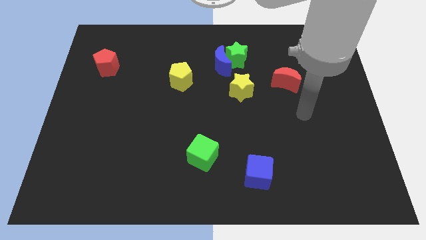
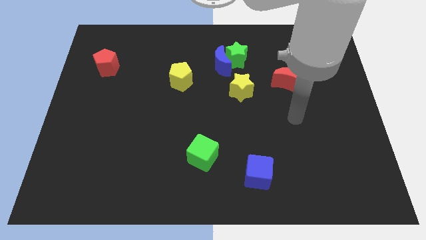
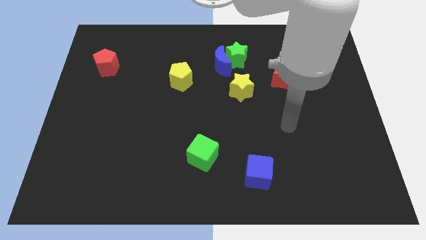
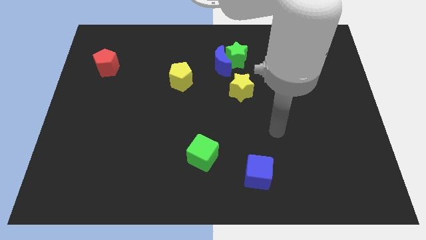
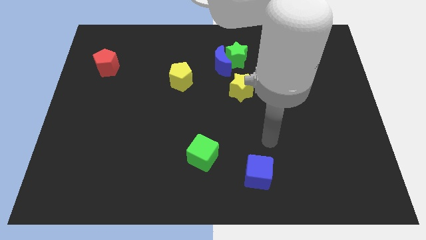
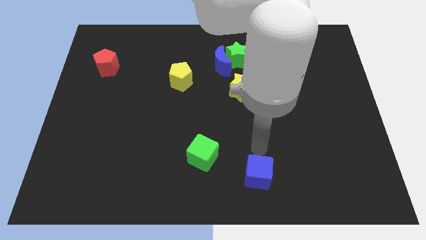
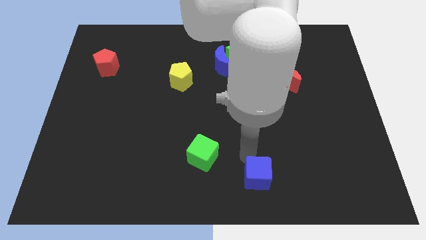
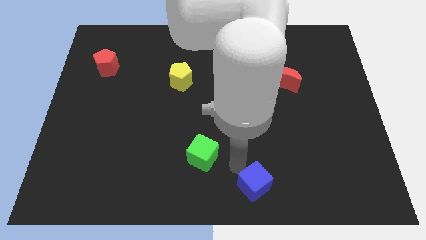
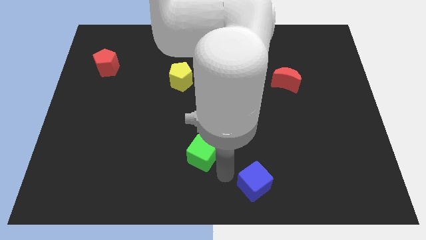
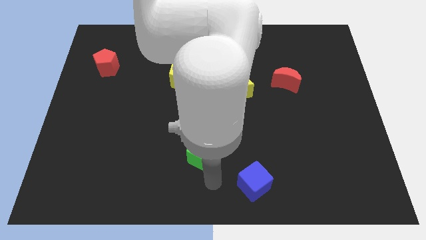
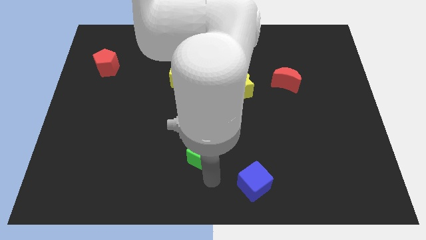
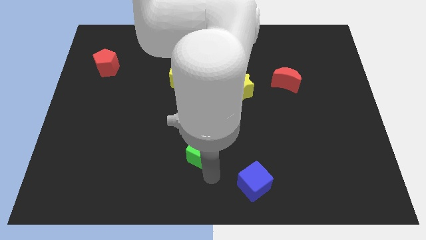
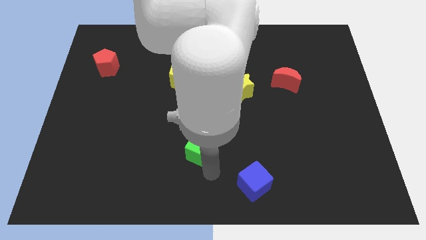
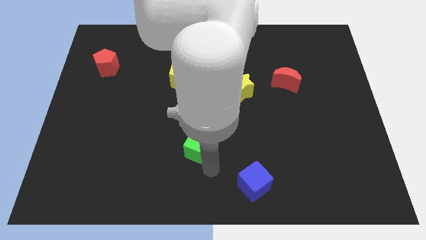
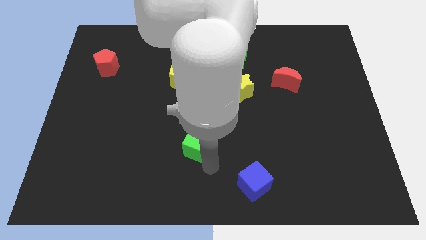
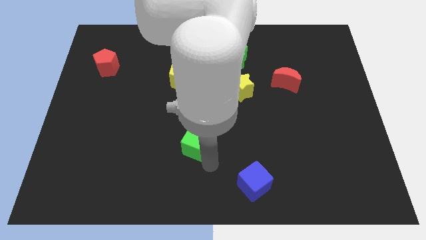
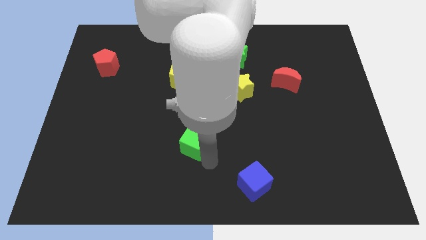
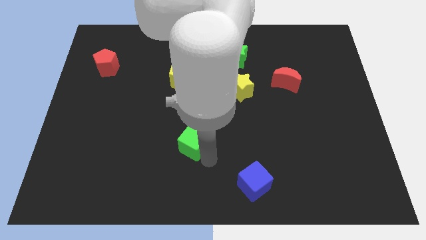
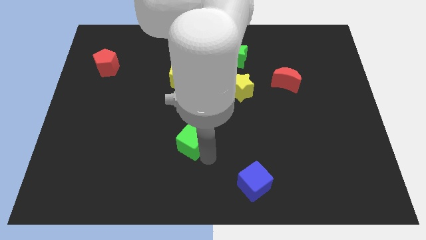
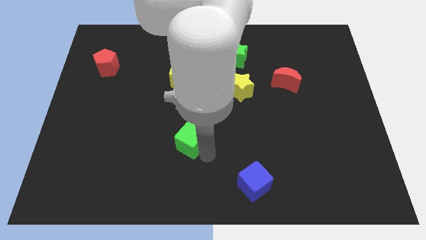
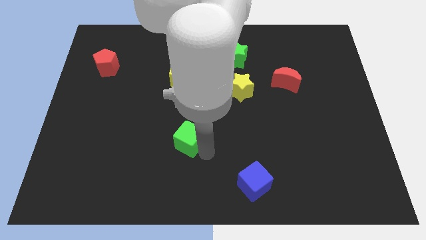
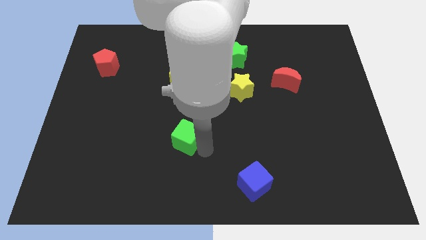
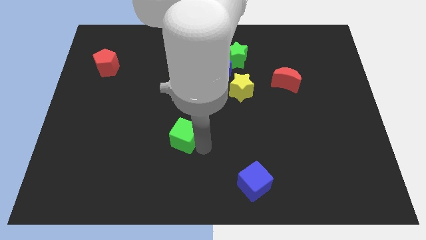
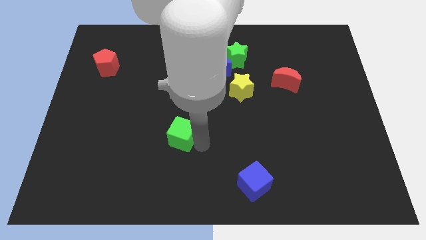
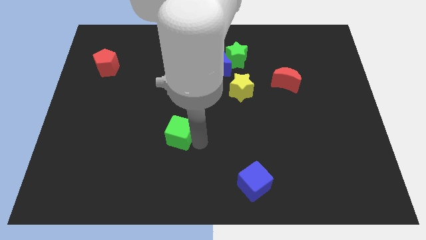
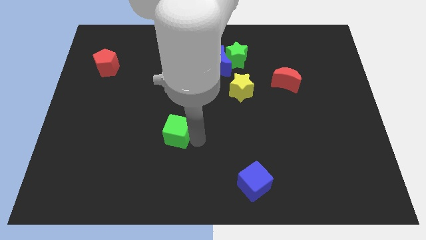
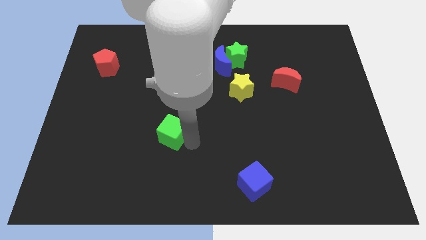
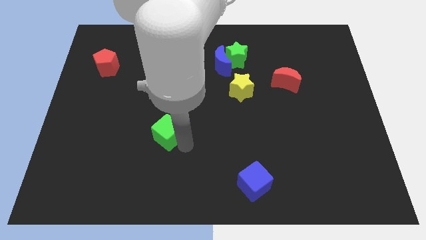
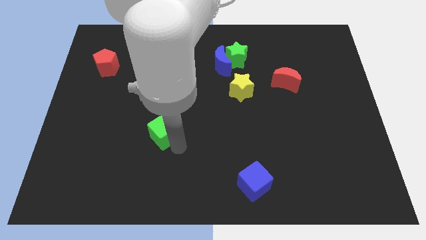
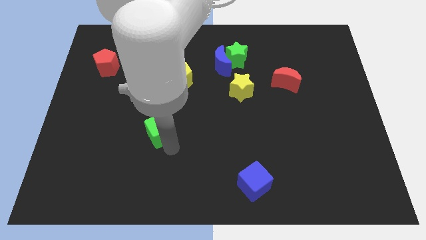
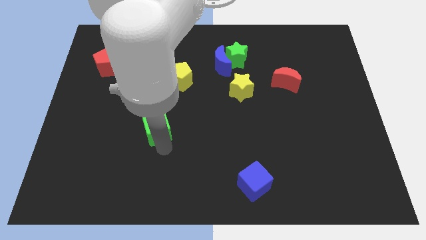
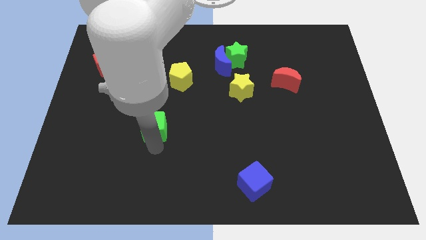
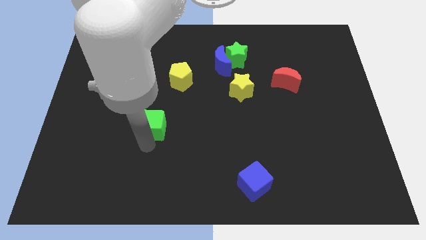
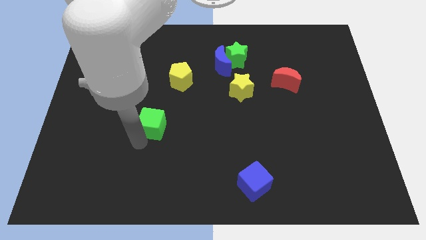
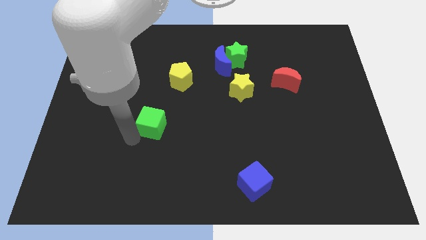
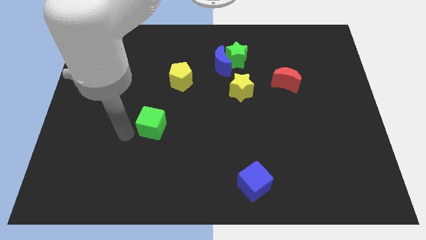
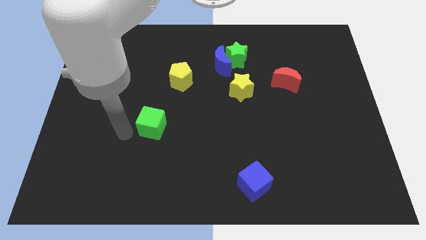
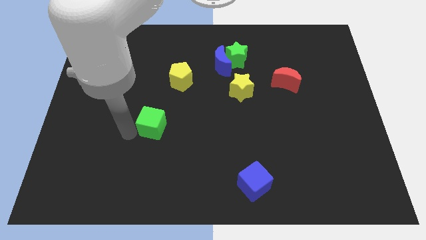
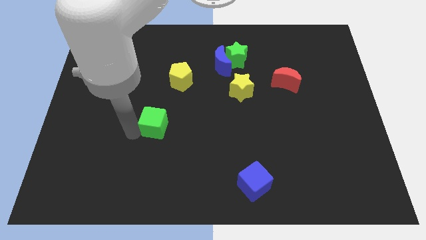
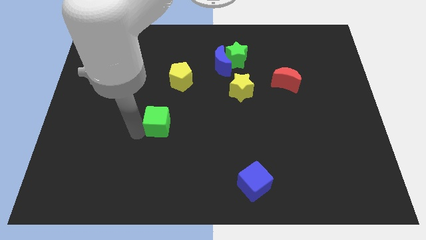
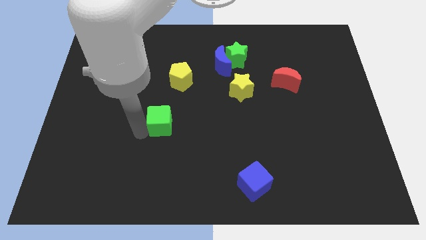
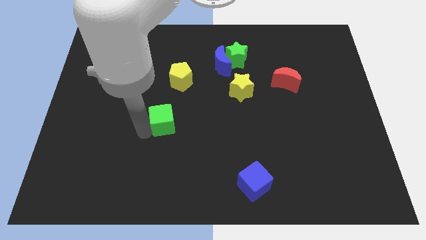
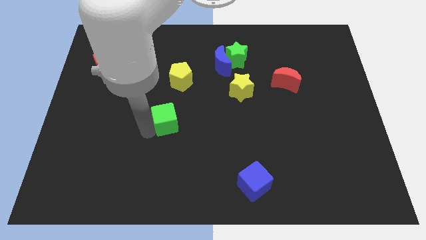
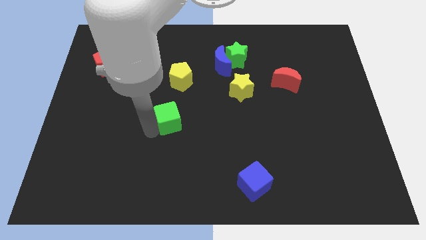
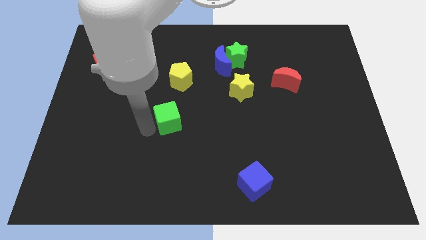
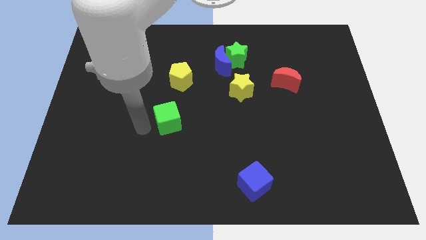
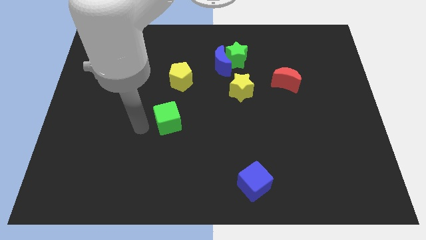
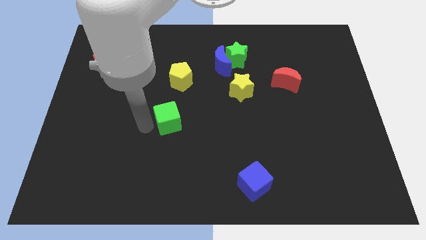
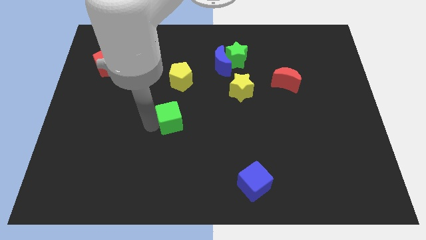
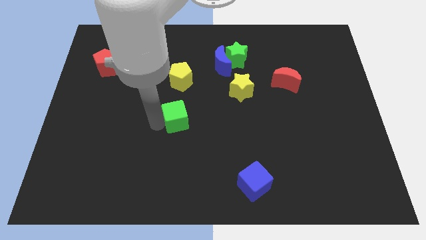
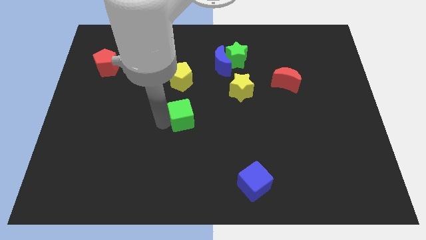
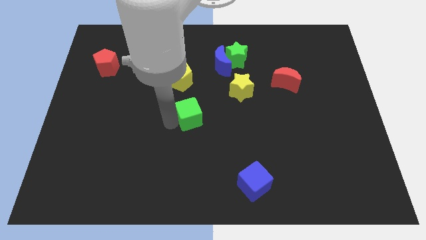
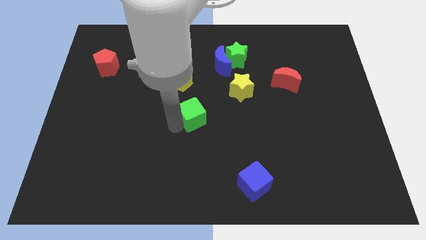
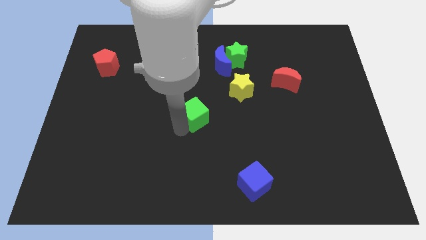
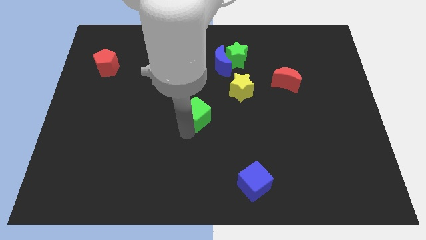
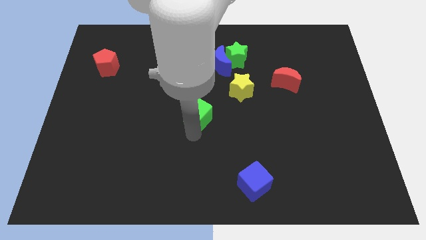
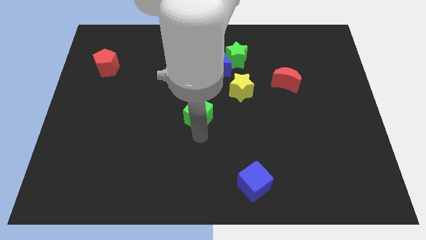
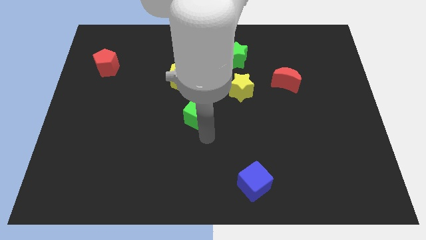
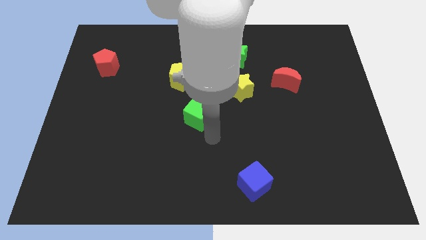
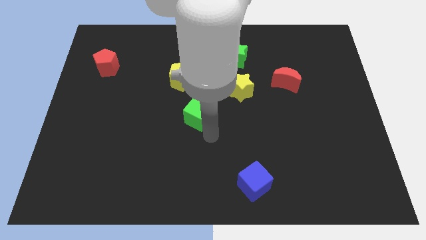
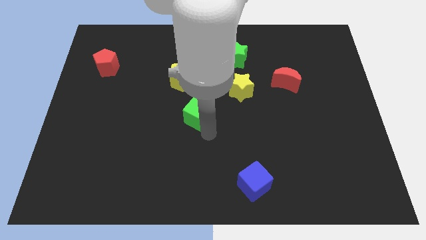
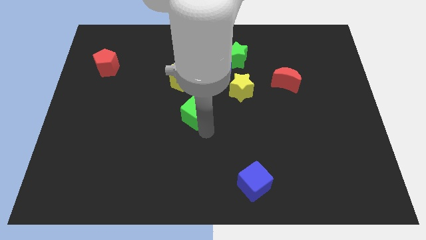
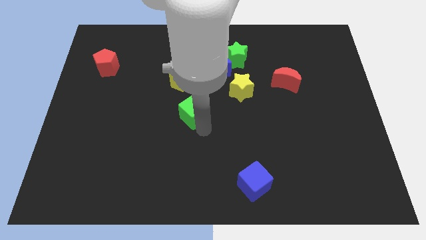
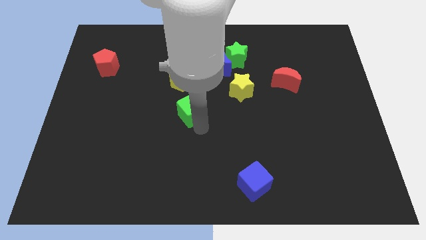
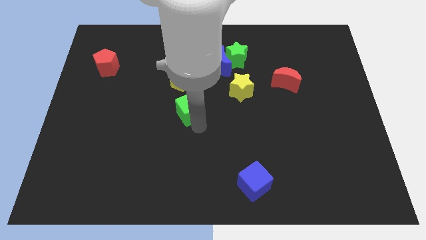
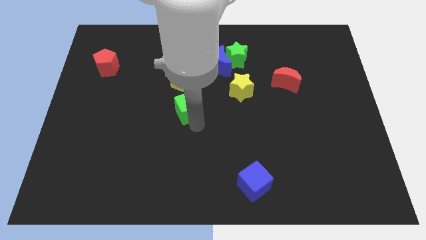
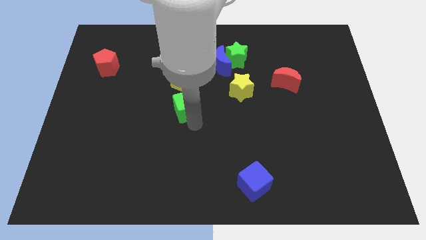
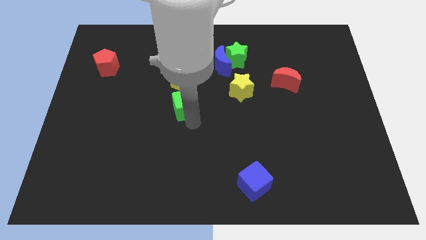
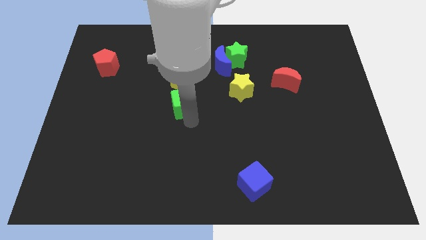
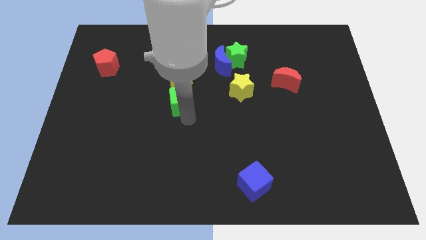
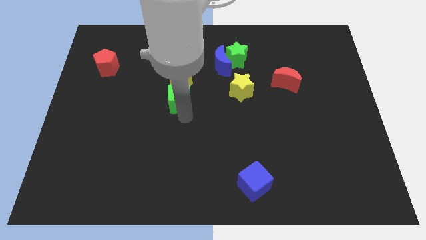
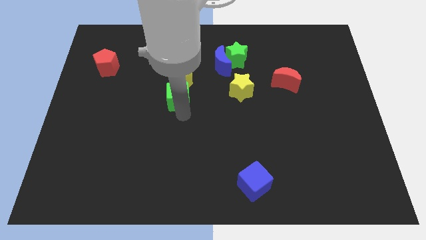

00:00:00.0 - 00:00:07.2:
put the green cube next to the yellow pentagon
